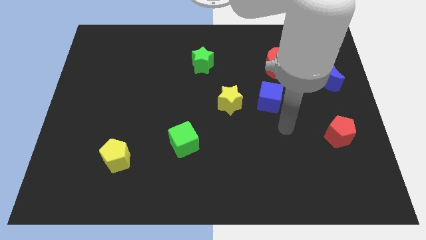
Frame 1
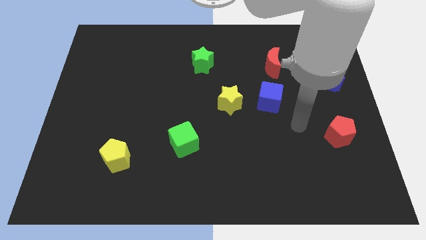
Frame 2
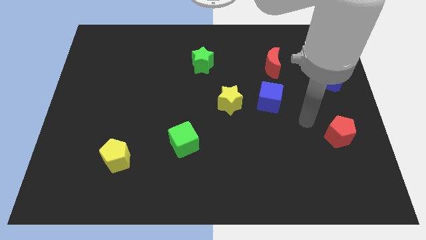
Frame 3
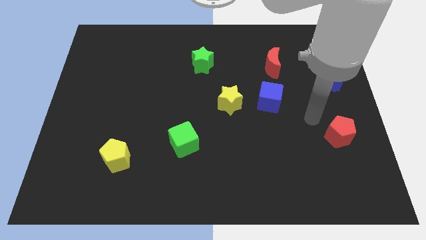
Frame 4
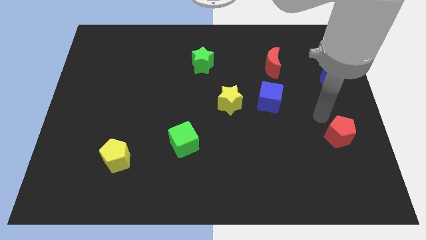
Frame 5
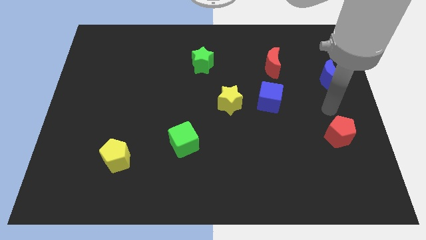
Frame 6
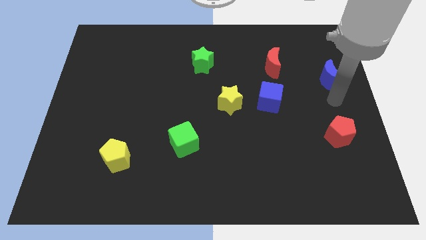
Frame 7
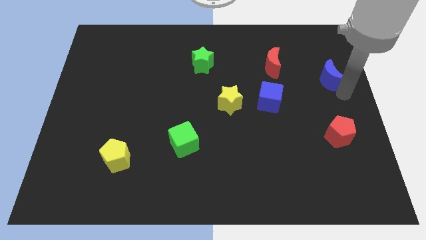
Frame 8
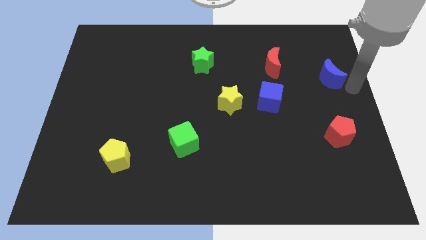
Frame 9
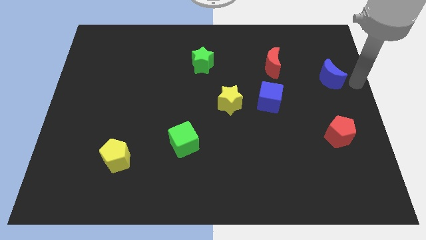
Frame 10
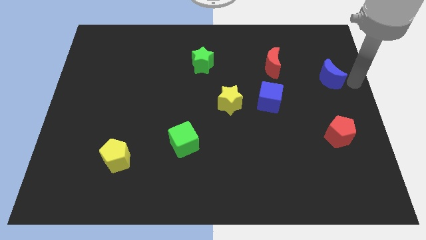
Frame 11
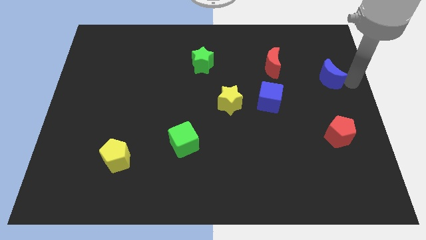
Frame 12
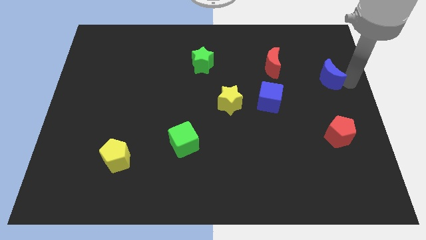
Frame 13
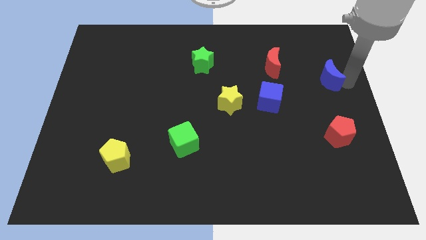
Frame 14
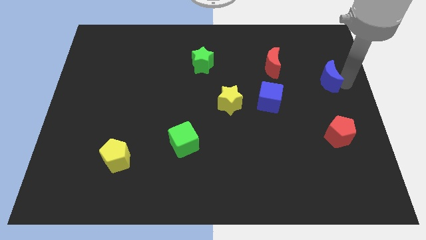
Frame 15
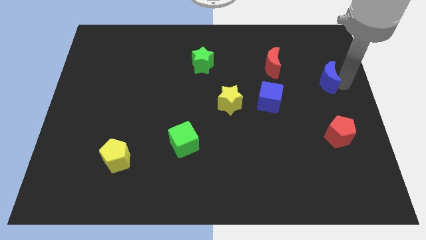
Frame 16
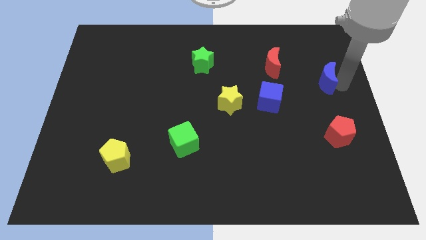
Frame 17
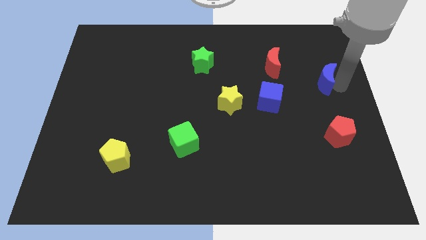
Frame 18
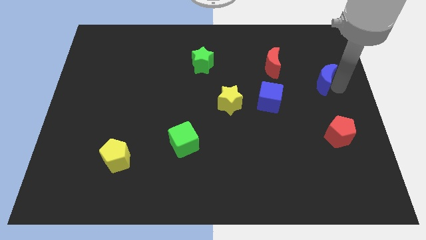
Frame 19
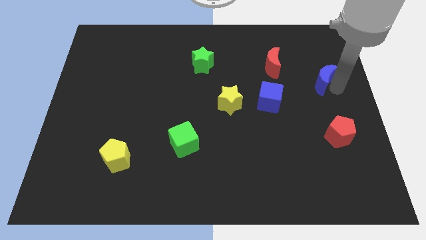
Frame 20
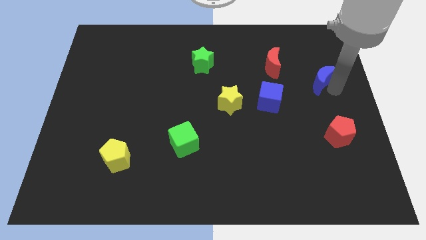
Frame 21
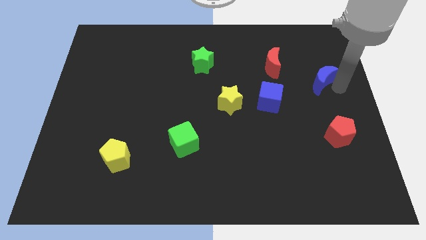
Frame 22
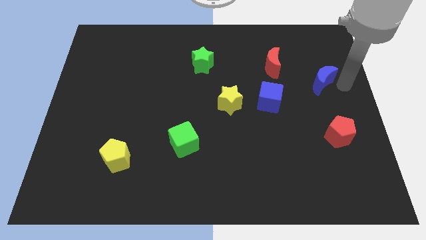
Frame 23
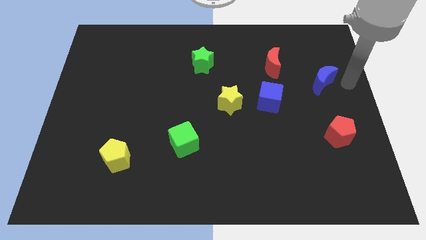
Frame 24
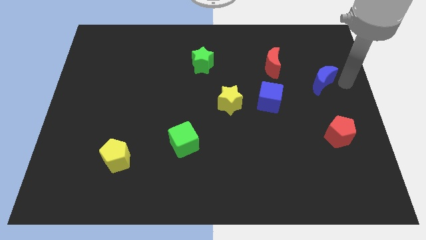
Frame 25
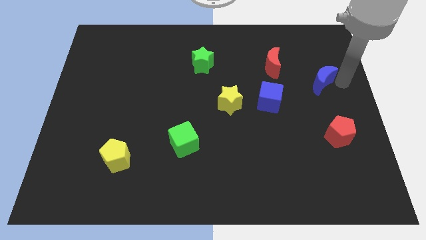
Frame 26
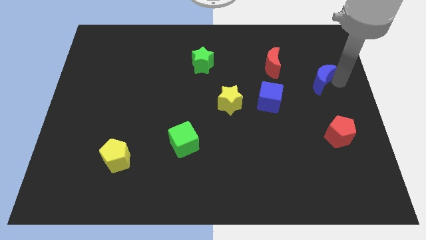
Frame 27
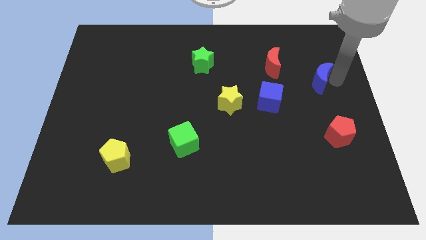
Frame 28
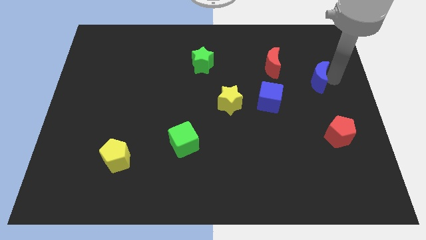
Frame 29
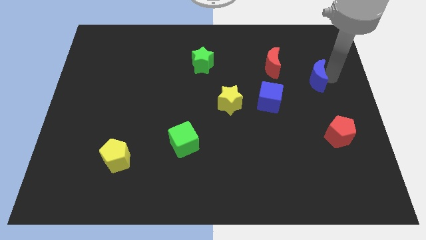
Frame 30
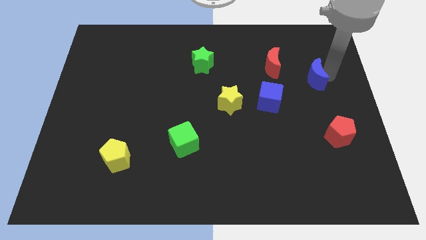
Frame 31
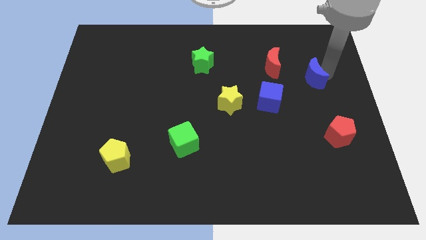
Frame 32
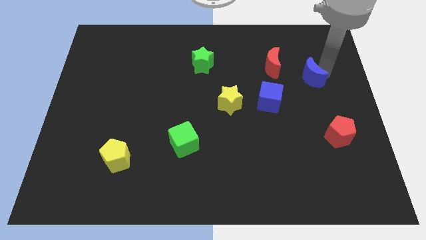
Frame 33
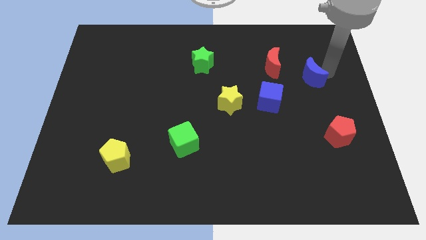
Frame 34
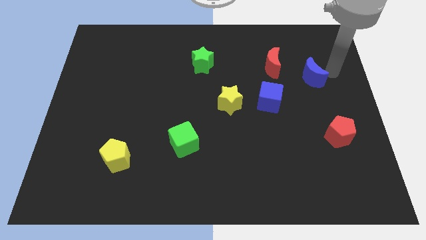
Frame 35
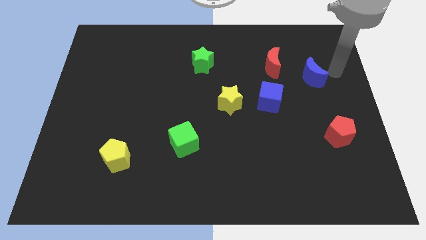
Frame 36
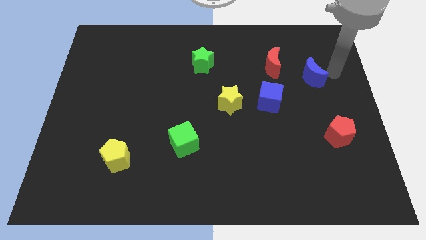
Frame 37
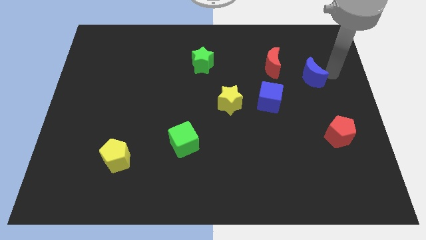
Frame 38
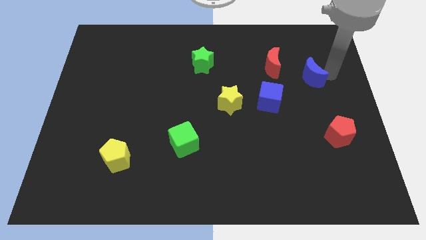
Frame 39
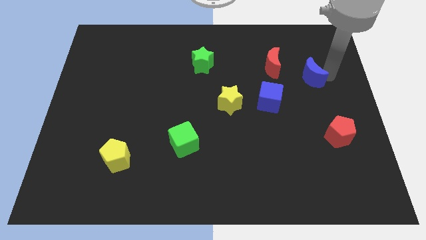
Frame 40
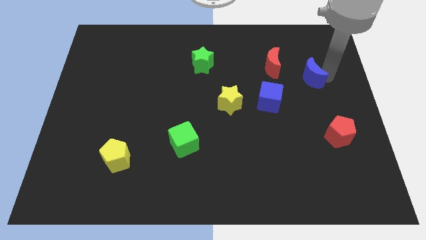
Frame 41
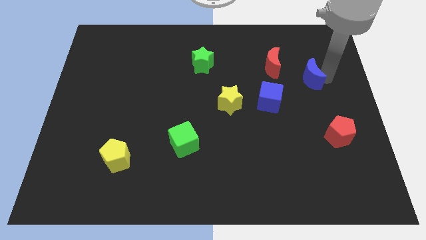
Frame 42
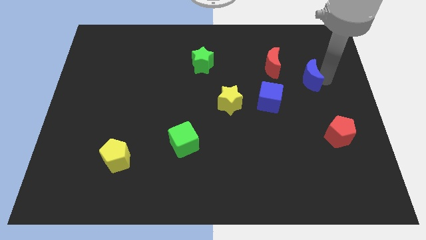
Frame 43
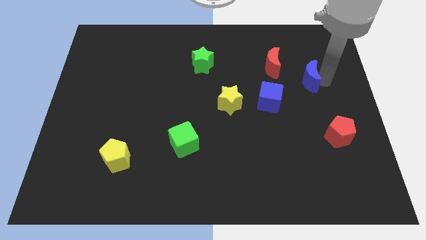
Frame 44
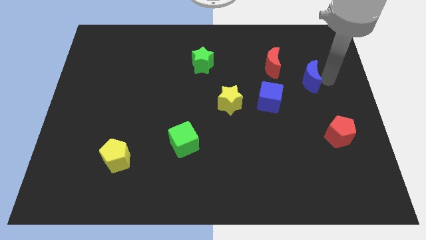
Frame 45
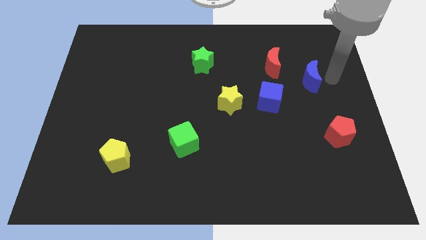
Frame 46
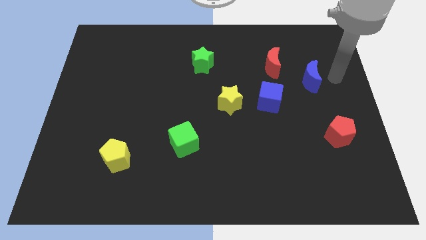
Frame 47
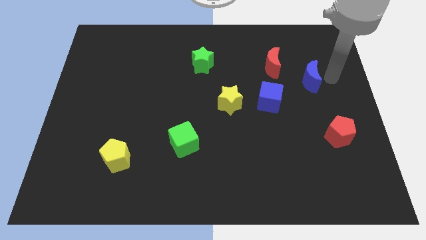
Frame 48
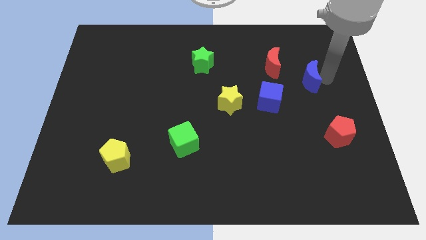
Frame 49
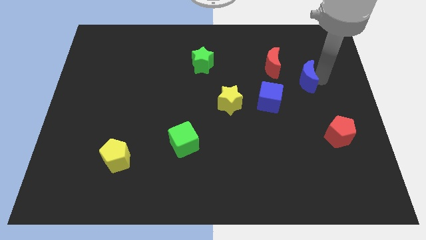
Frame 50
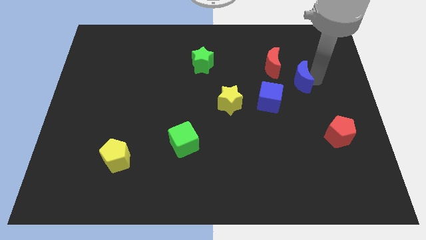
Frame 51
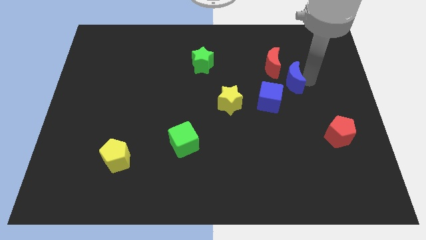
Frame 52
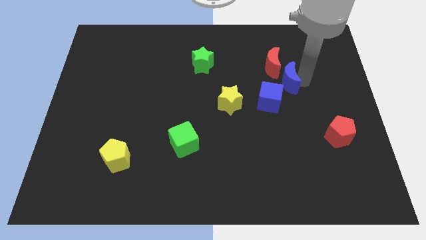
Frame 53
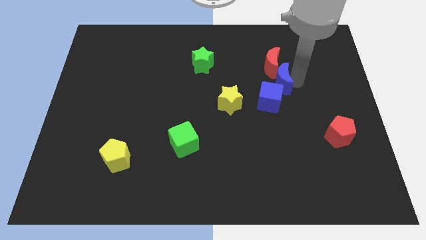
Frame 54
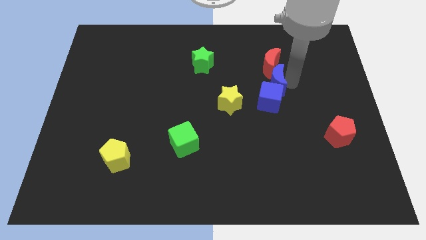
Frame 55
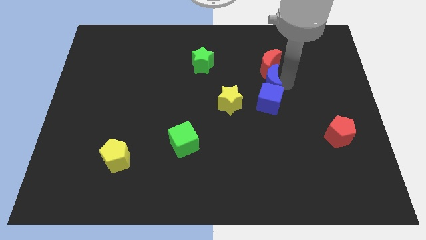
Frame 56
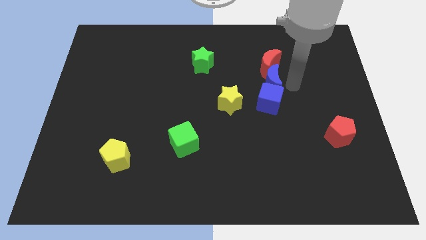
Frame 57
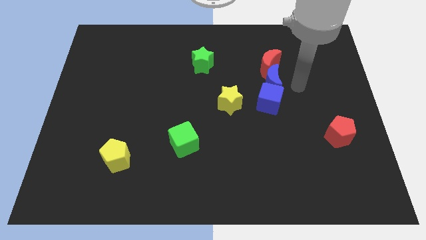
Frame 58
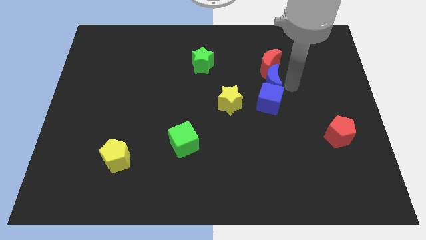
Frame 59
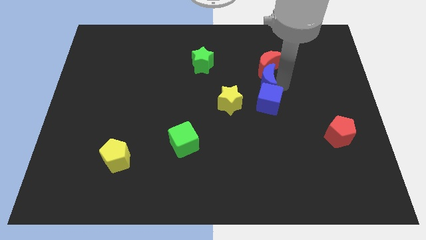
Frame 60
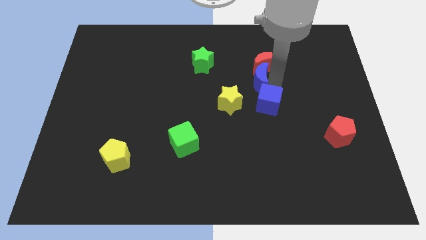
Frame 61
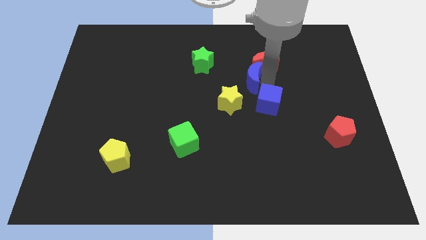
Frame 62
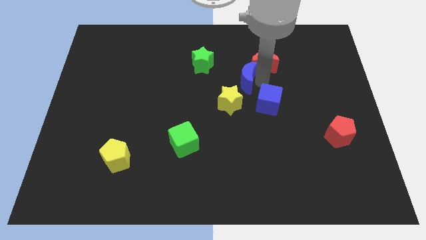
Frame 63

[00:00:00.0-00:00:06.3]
push the blue moon to the left

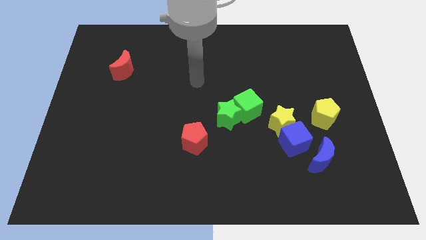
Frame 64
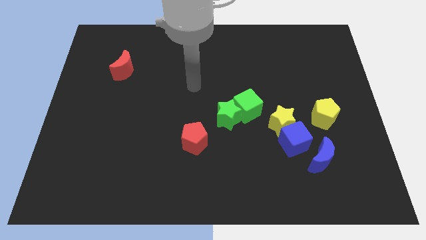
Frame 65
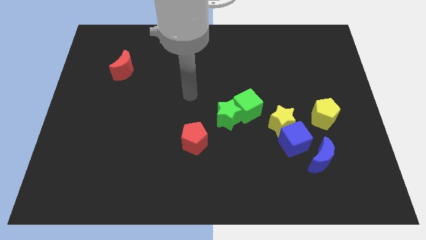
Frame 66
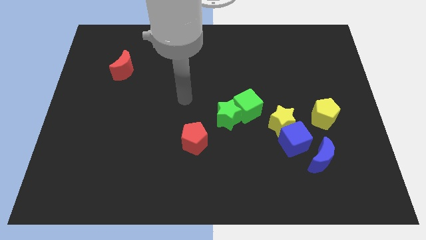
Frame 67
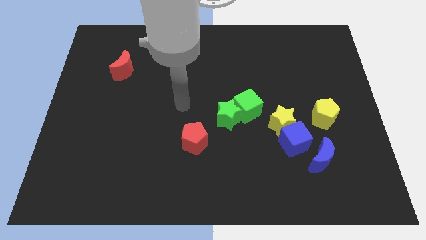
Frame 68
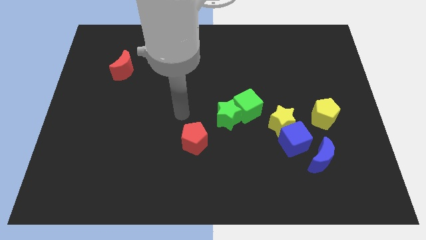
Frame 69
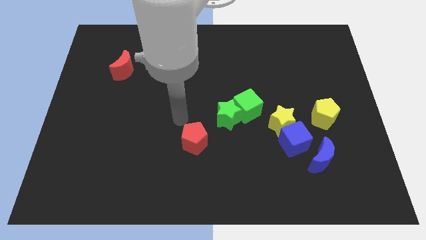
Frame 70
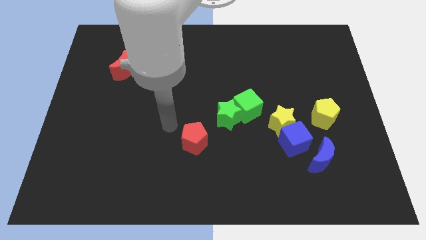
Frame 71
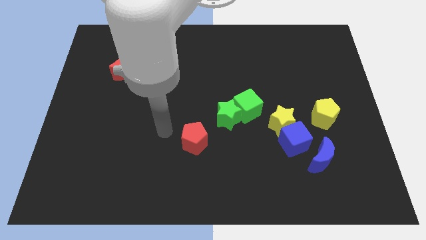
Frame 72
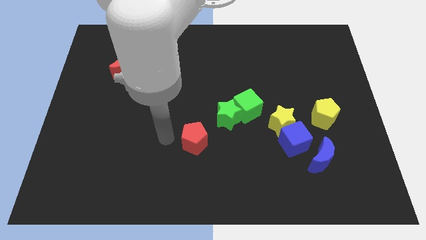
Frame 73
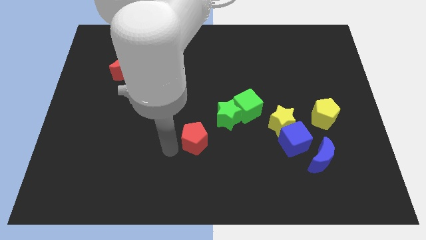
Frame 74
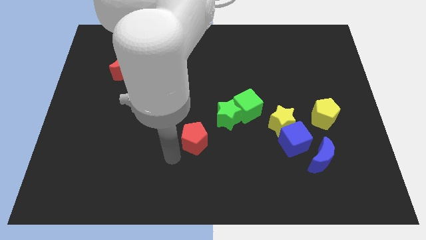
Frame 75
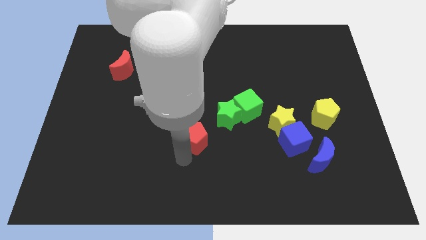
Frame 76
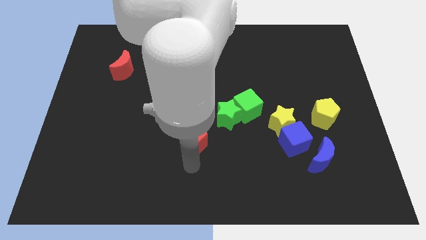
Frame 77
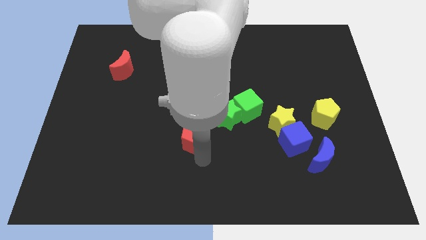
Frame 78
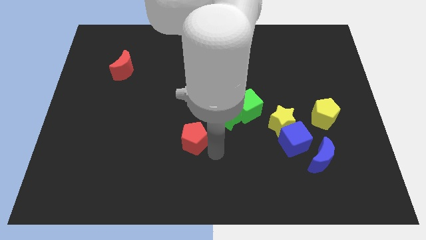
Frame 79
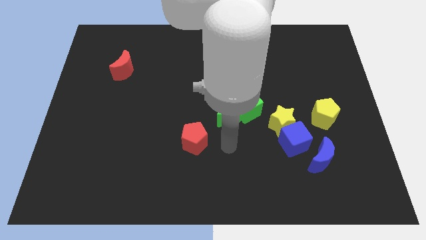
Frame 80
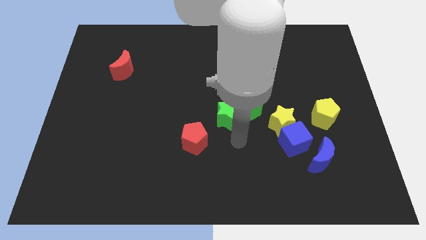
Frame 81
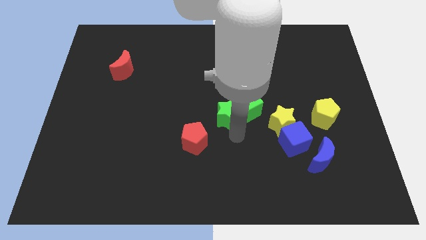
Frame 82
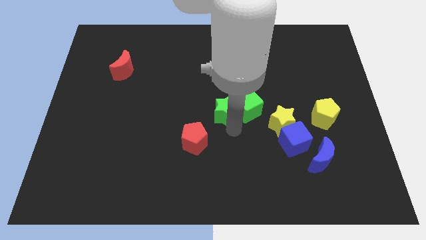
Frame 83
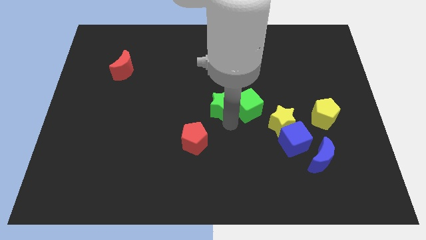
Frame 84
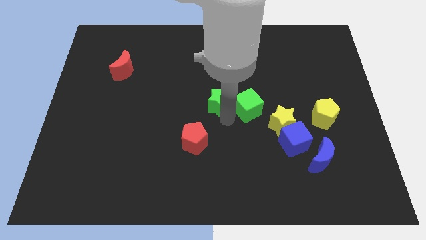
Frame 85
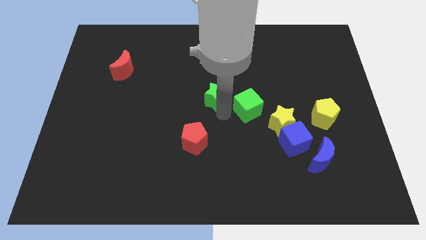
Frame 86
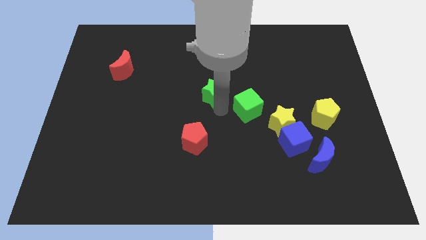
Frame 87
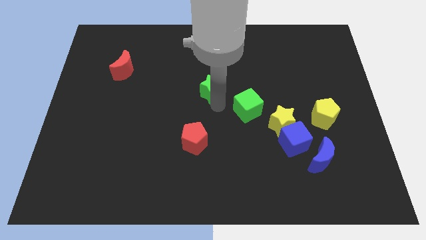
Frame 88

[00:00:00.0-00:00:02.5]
slightly slide the green star up
